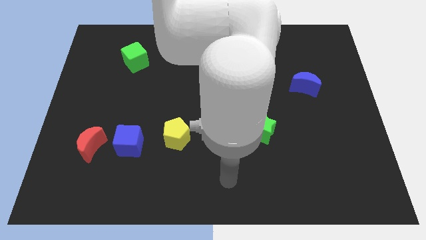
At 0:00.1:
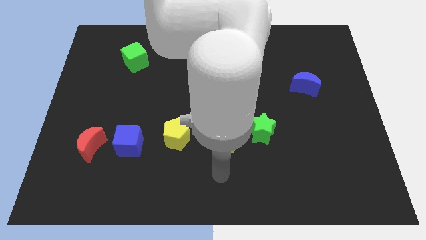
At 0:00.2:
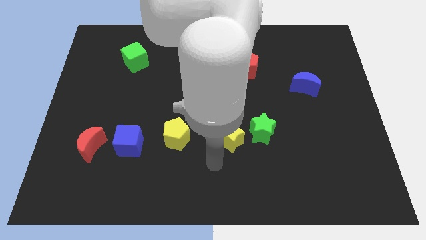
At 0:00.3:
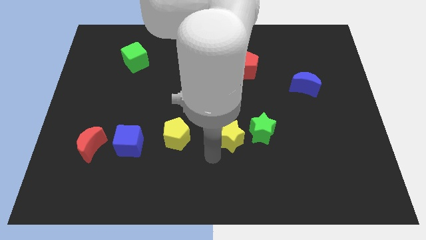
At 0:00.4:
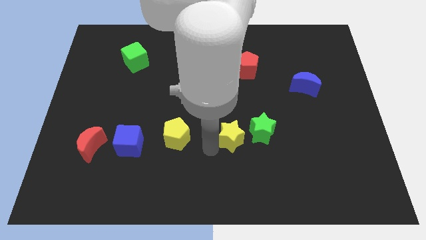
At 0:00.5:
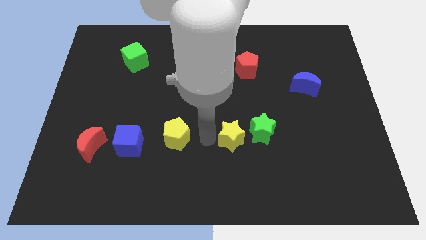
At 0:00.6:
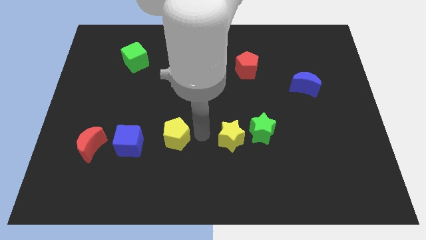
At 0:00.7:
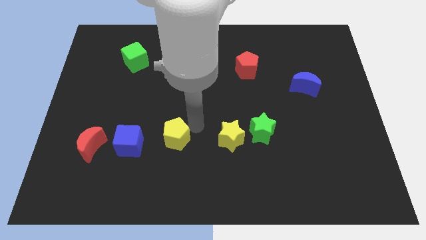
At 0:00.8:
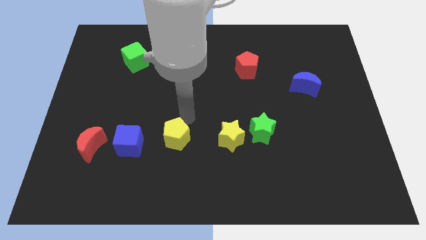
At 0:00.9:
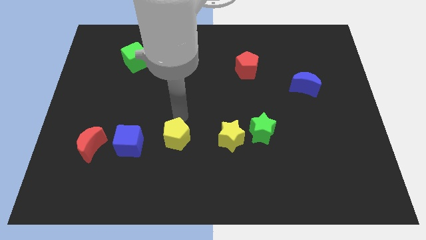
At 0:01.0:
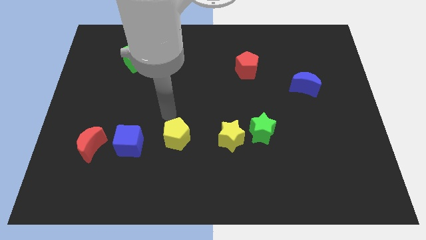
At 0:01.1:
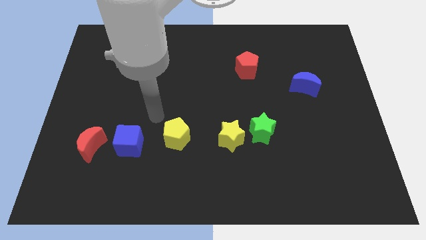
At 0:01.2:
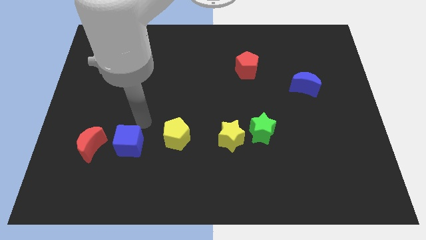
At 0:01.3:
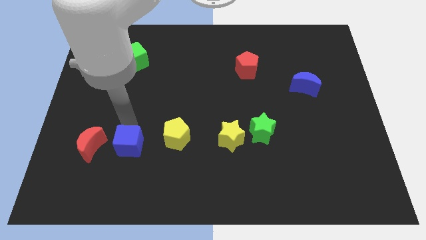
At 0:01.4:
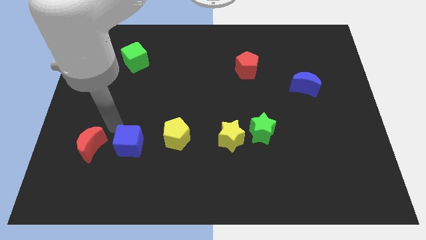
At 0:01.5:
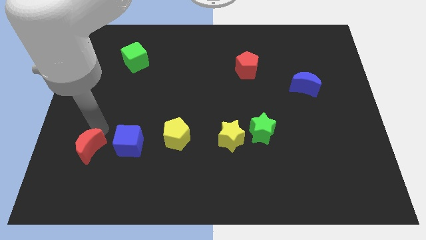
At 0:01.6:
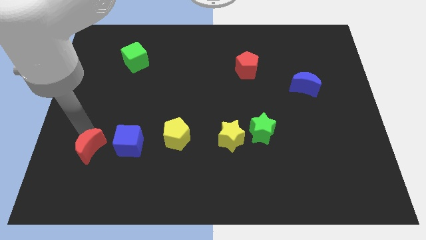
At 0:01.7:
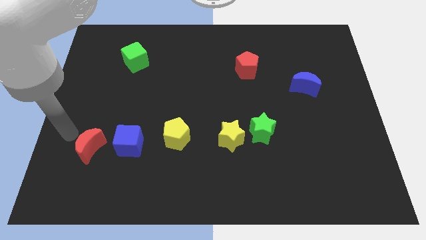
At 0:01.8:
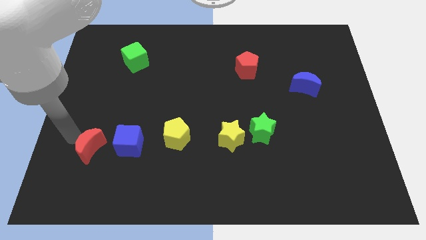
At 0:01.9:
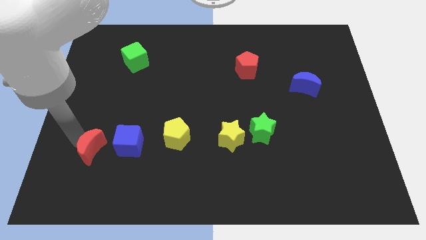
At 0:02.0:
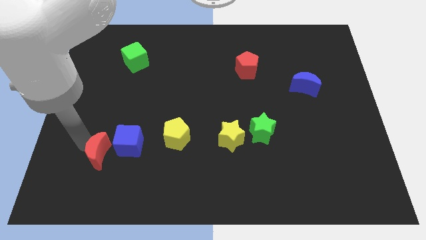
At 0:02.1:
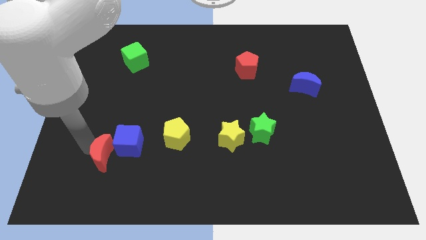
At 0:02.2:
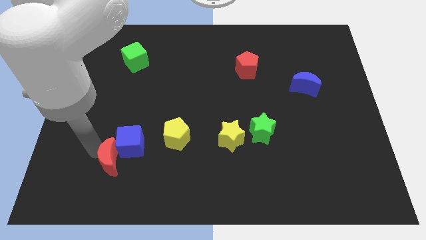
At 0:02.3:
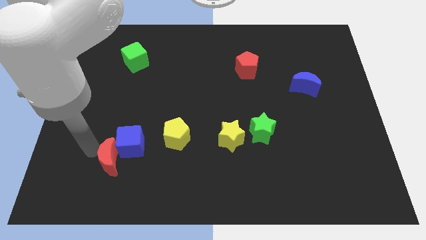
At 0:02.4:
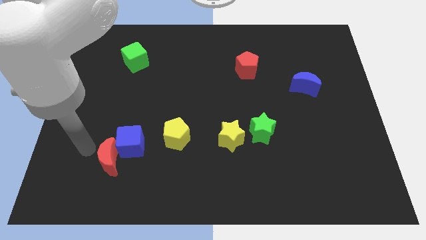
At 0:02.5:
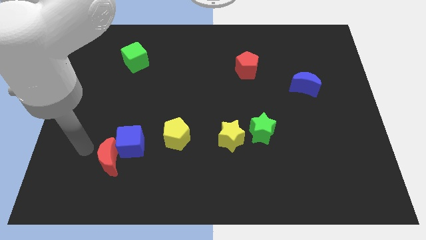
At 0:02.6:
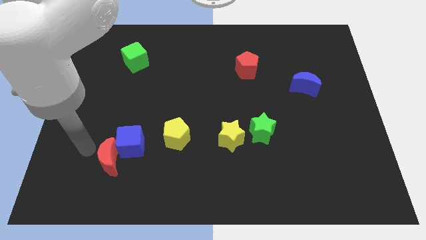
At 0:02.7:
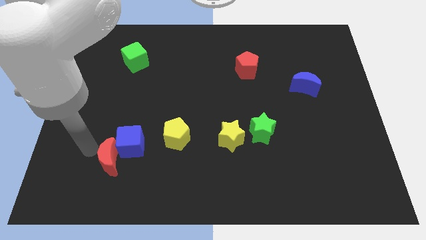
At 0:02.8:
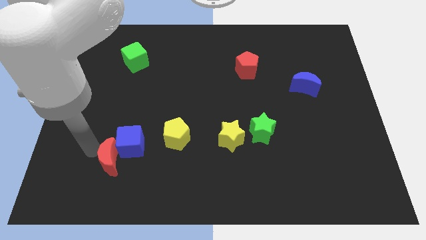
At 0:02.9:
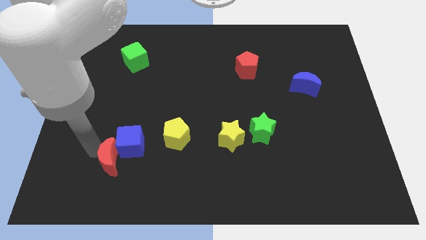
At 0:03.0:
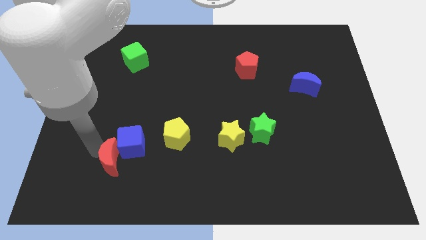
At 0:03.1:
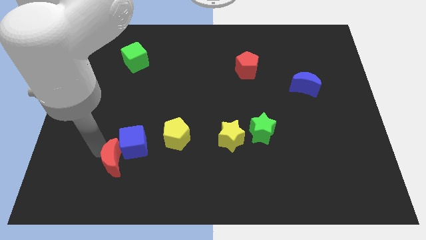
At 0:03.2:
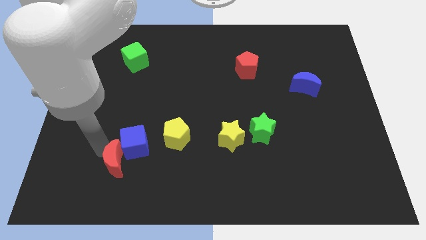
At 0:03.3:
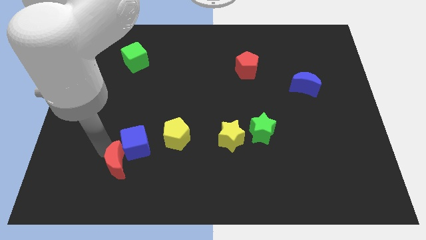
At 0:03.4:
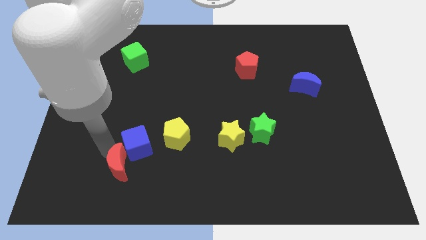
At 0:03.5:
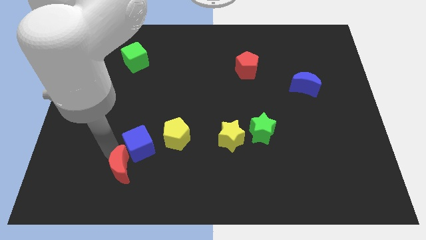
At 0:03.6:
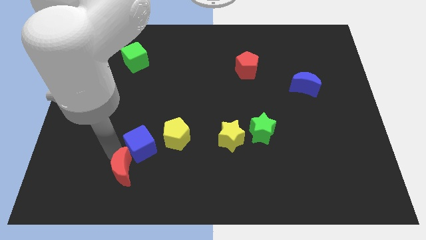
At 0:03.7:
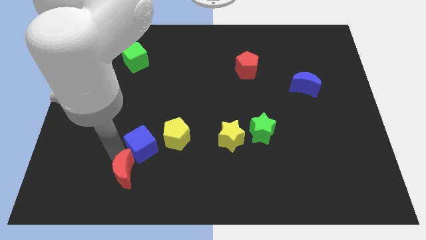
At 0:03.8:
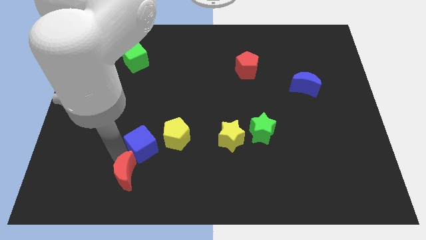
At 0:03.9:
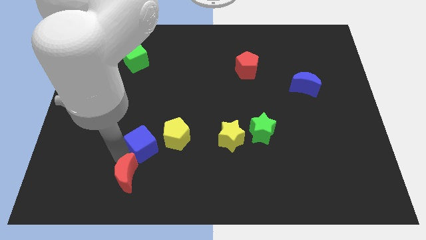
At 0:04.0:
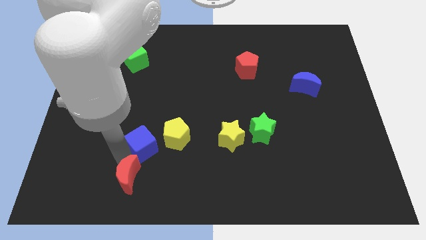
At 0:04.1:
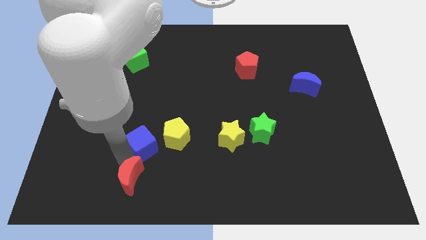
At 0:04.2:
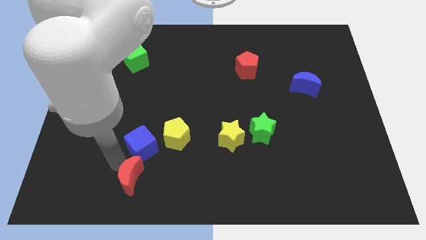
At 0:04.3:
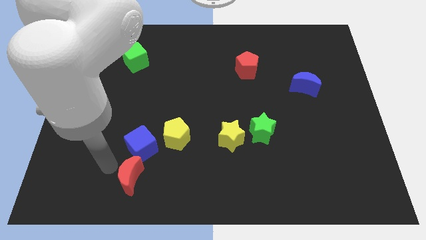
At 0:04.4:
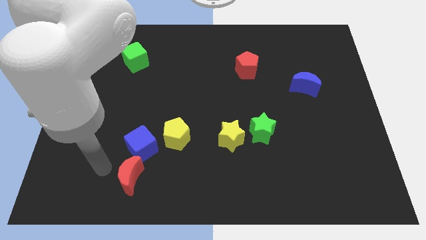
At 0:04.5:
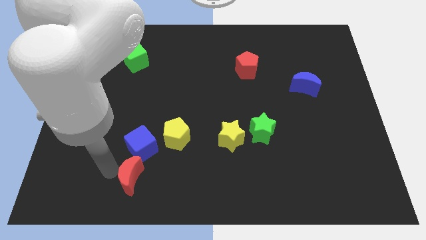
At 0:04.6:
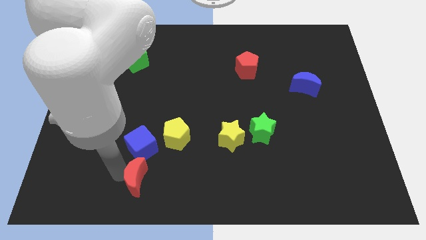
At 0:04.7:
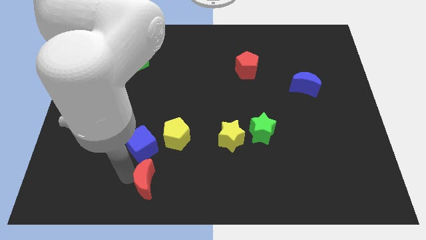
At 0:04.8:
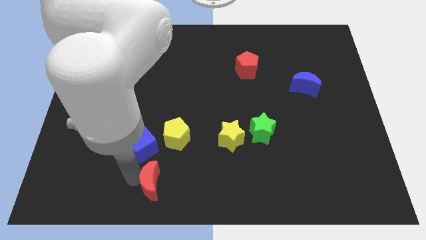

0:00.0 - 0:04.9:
slide the red moon to the bottom side

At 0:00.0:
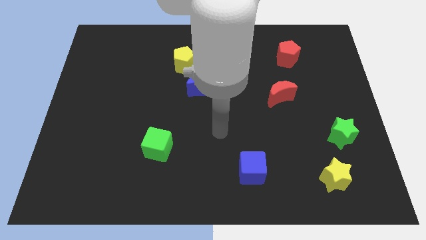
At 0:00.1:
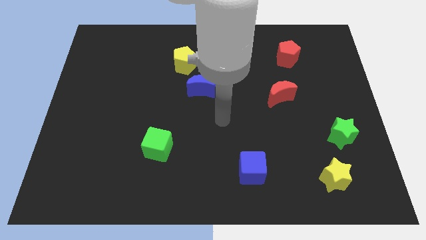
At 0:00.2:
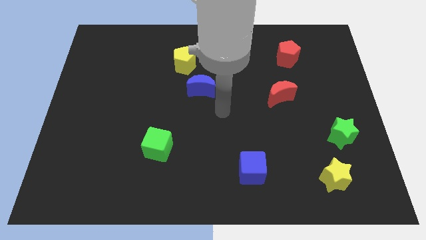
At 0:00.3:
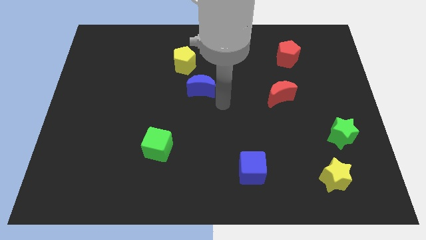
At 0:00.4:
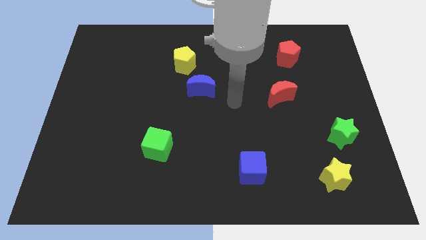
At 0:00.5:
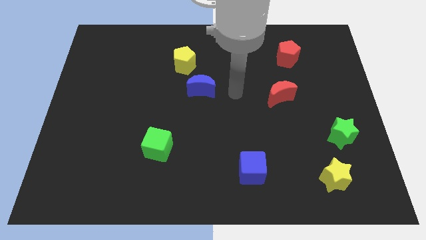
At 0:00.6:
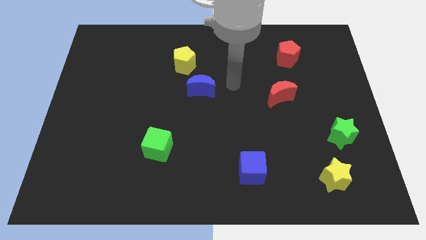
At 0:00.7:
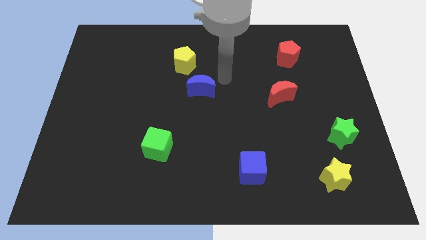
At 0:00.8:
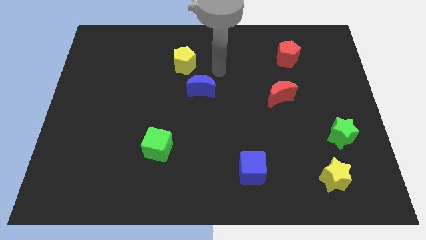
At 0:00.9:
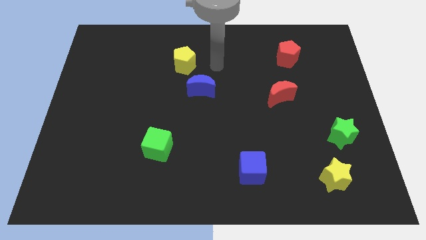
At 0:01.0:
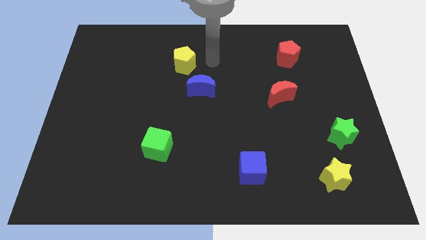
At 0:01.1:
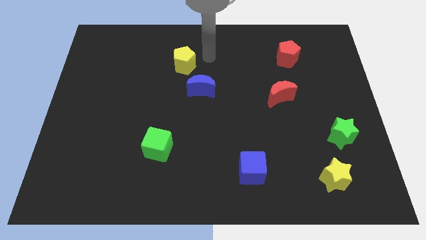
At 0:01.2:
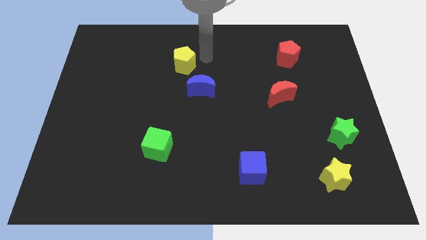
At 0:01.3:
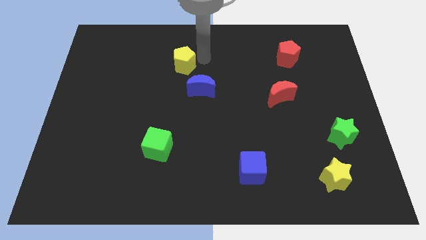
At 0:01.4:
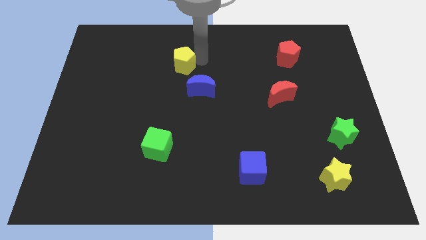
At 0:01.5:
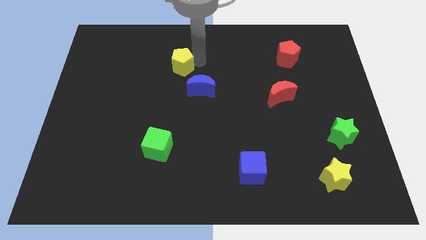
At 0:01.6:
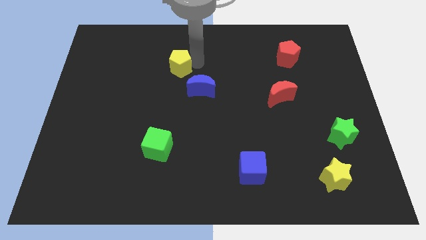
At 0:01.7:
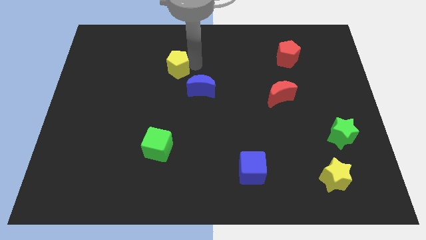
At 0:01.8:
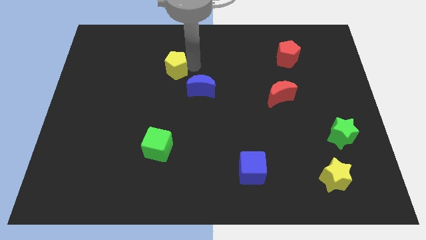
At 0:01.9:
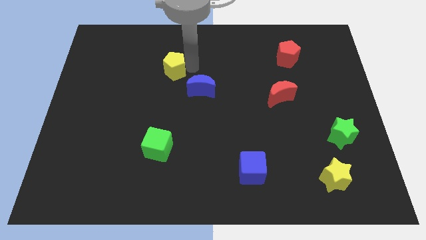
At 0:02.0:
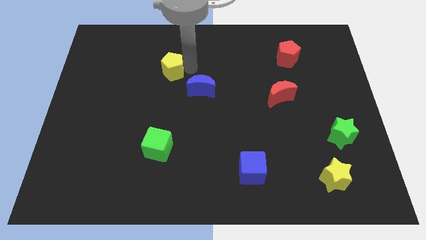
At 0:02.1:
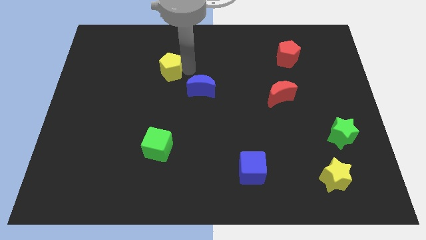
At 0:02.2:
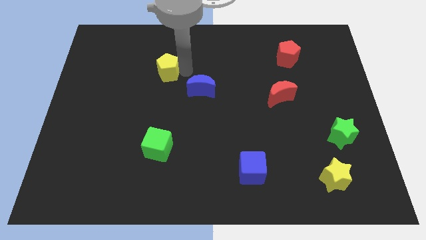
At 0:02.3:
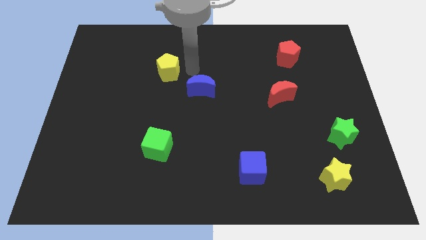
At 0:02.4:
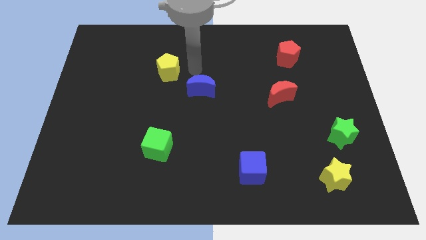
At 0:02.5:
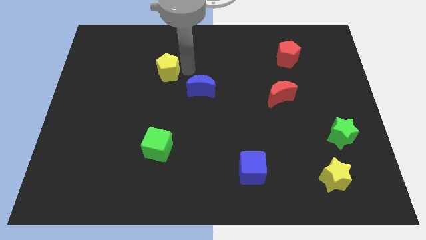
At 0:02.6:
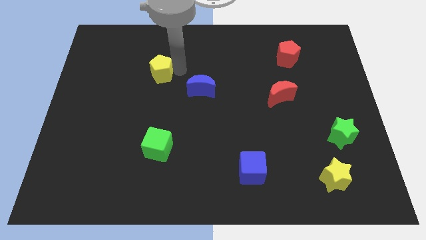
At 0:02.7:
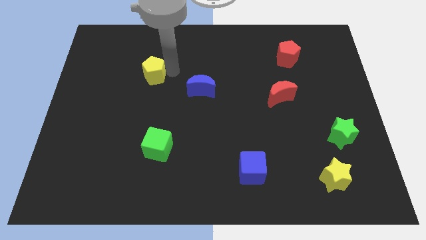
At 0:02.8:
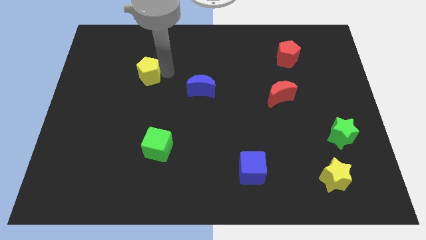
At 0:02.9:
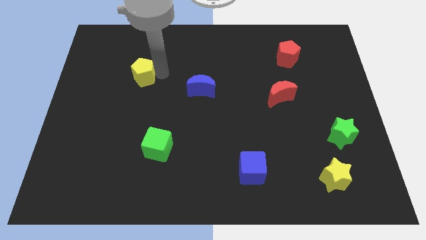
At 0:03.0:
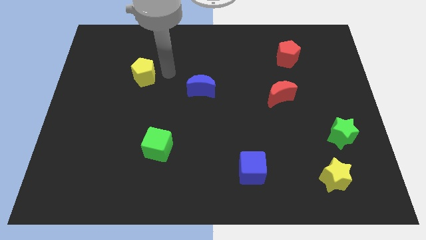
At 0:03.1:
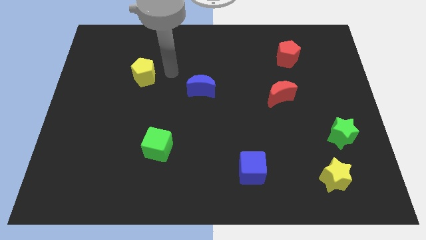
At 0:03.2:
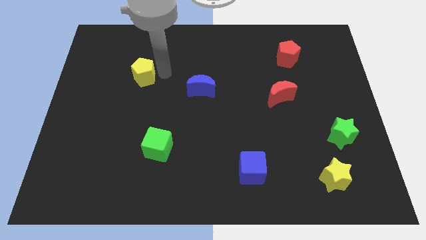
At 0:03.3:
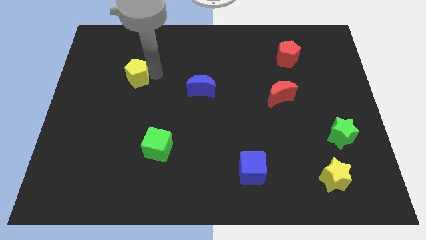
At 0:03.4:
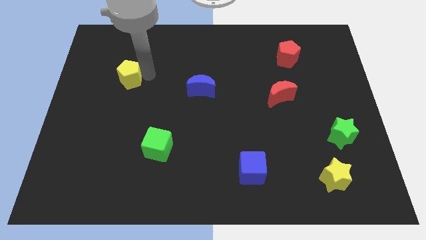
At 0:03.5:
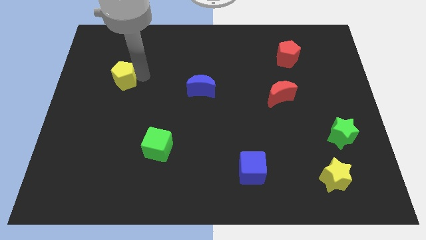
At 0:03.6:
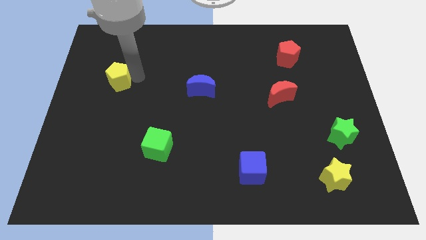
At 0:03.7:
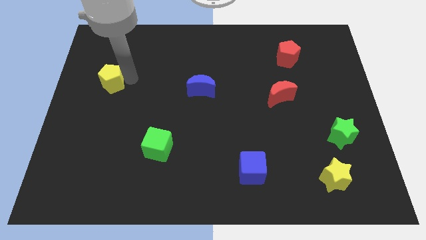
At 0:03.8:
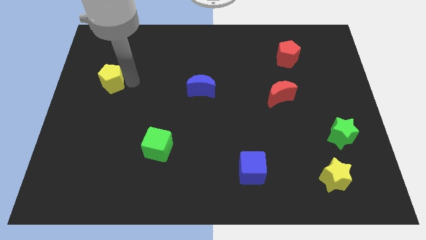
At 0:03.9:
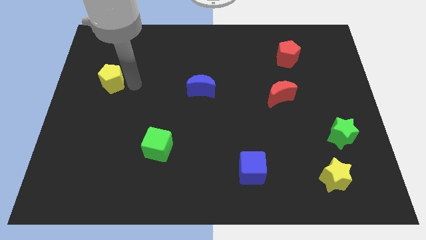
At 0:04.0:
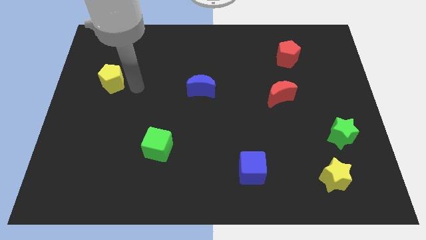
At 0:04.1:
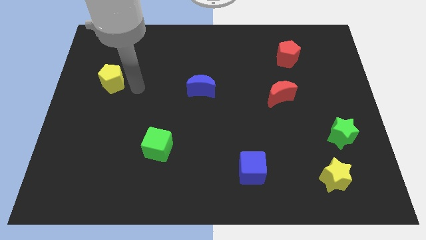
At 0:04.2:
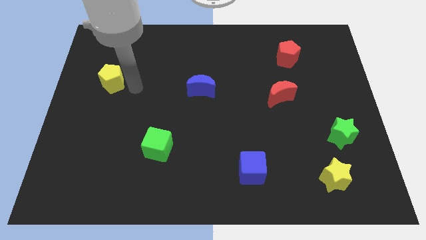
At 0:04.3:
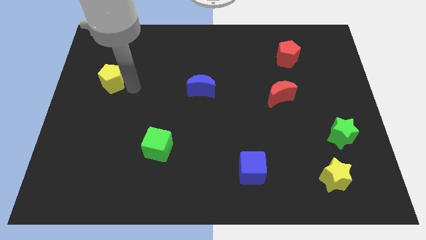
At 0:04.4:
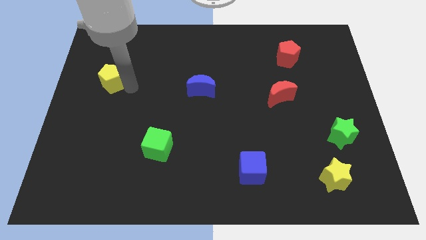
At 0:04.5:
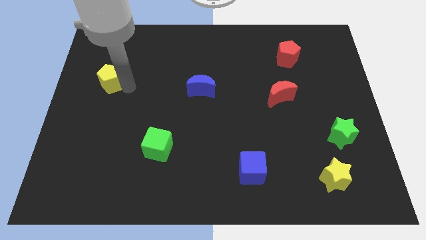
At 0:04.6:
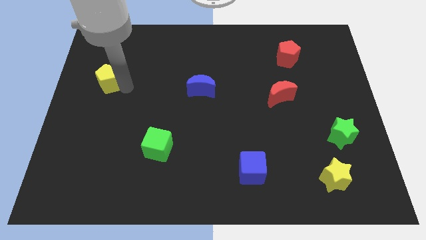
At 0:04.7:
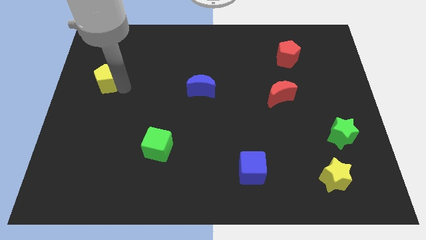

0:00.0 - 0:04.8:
push the yellow pentagon to the left side of the board
